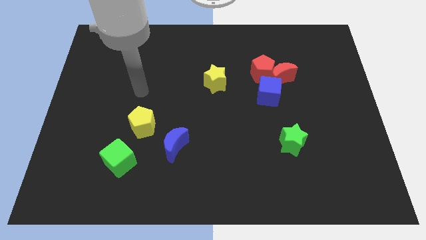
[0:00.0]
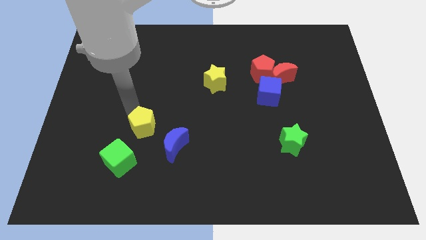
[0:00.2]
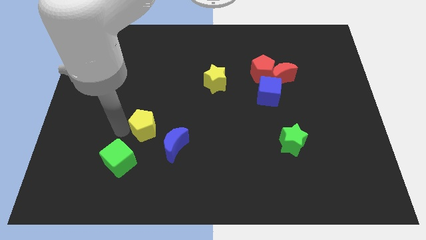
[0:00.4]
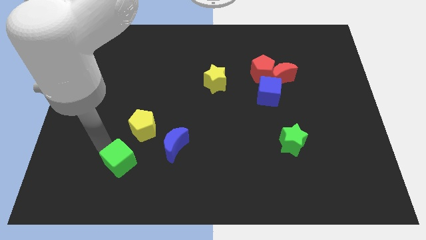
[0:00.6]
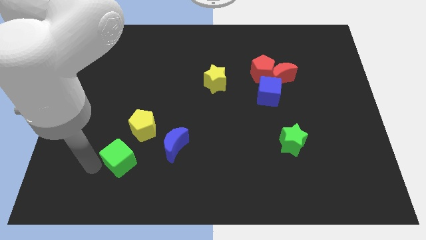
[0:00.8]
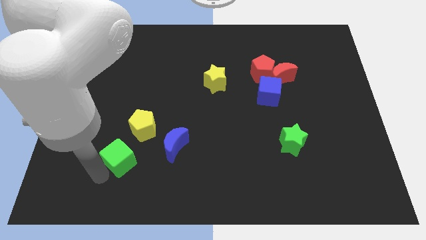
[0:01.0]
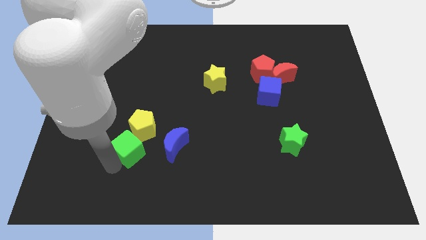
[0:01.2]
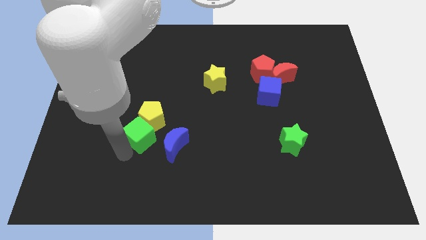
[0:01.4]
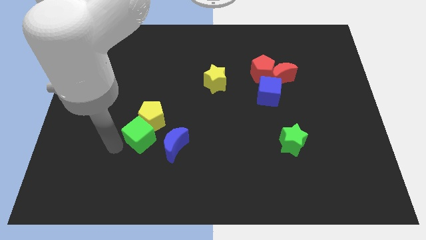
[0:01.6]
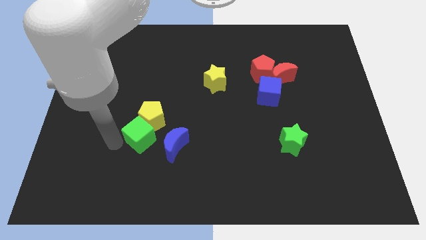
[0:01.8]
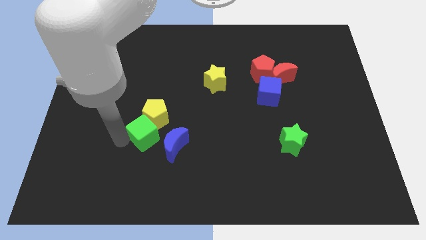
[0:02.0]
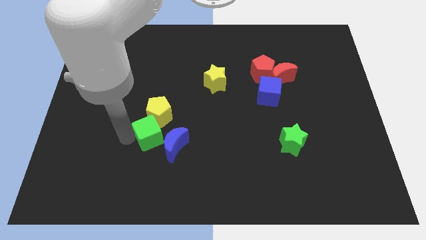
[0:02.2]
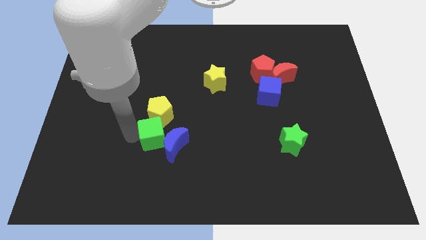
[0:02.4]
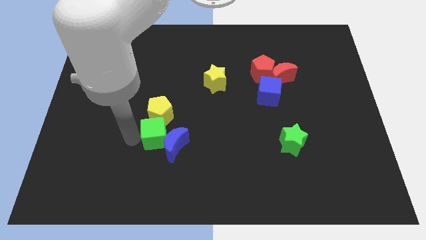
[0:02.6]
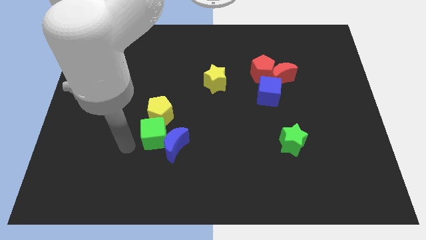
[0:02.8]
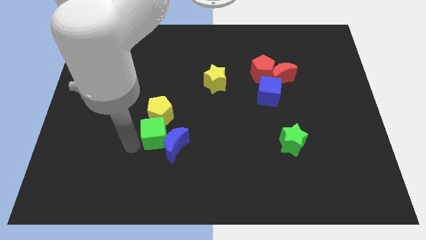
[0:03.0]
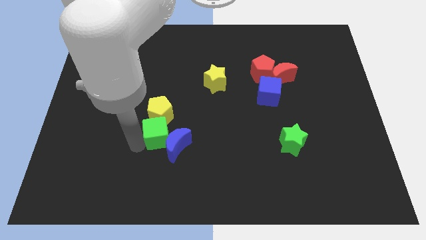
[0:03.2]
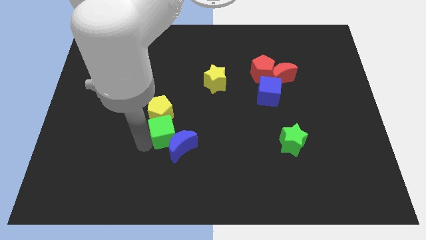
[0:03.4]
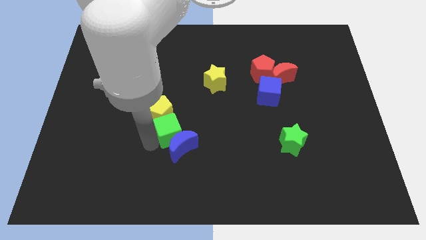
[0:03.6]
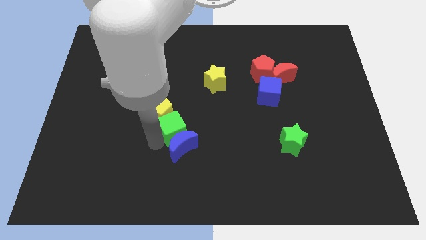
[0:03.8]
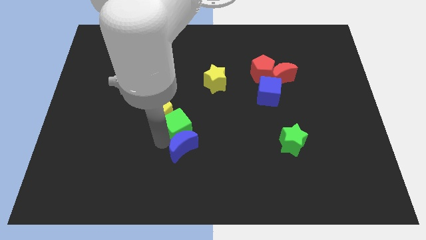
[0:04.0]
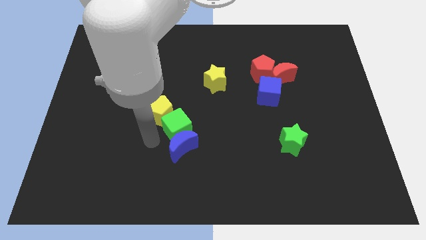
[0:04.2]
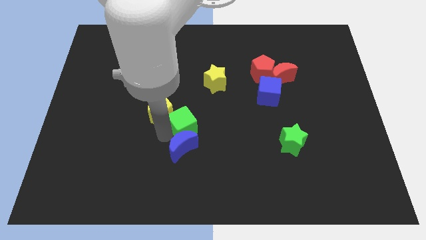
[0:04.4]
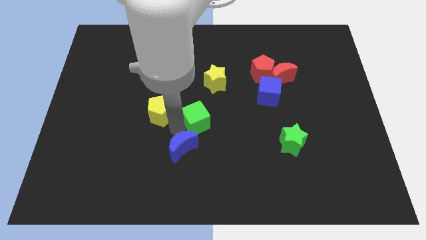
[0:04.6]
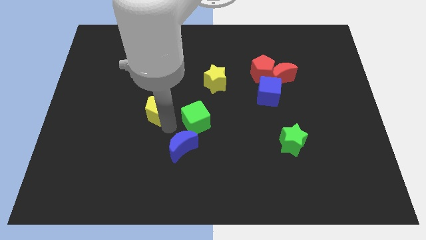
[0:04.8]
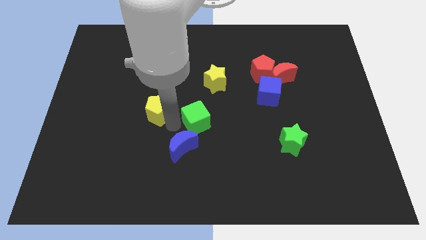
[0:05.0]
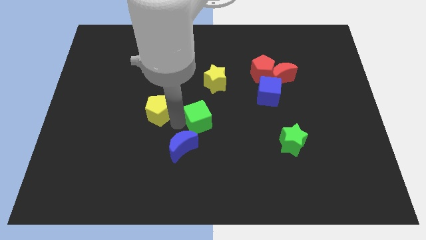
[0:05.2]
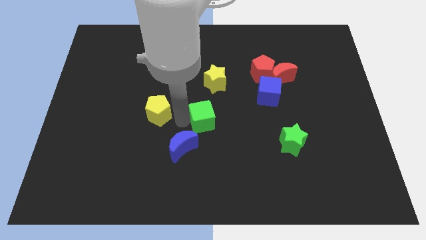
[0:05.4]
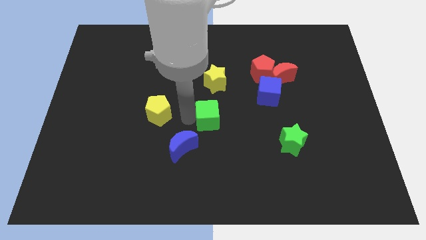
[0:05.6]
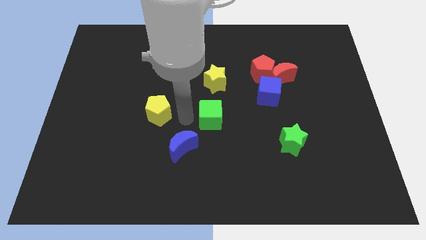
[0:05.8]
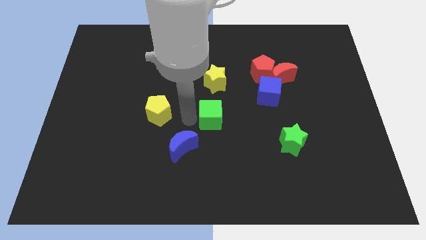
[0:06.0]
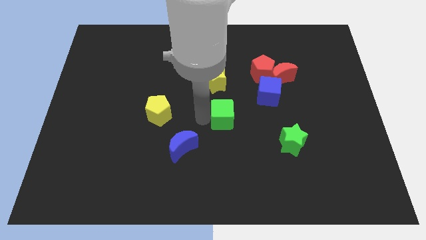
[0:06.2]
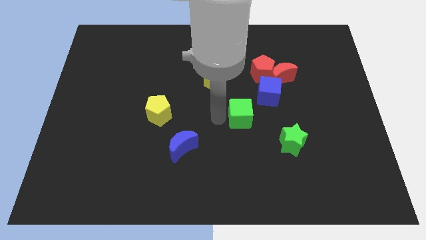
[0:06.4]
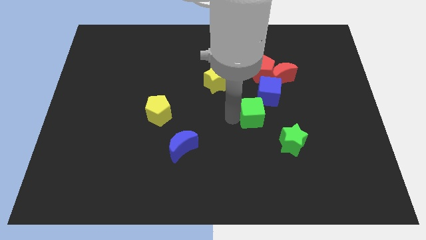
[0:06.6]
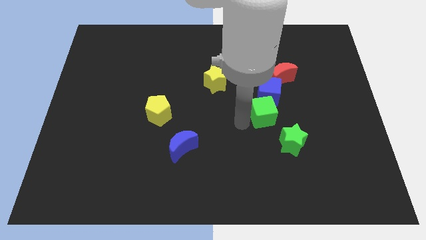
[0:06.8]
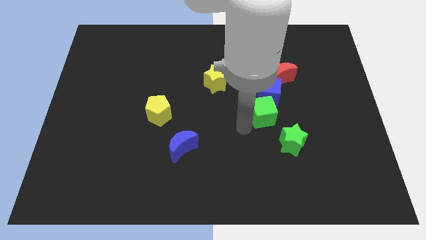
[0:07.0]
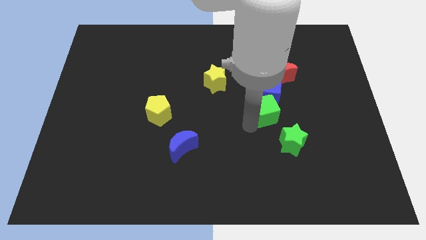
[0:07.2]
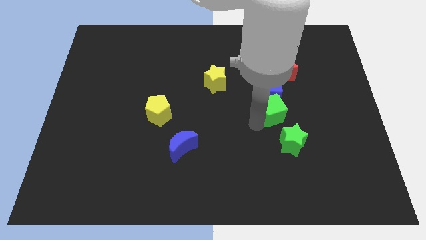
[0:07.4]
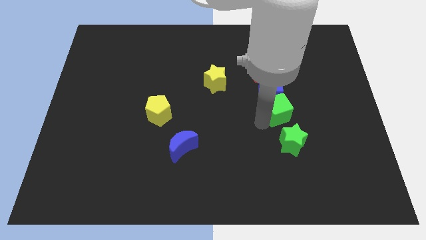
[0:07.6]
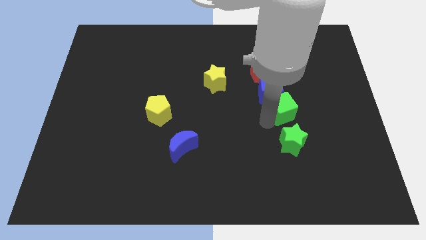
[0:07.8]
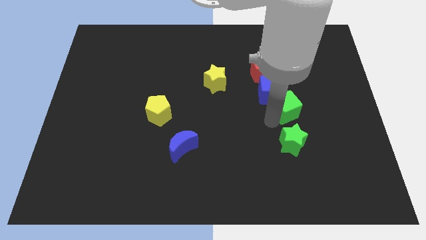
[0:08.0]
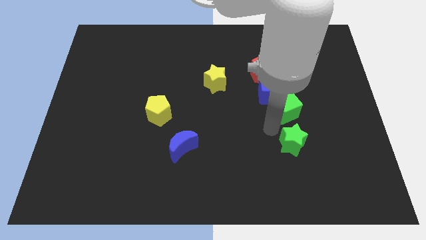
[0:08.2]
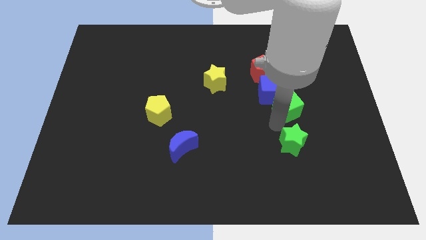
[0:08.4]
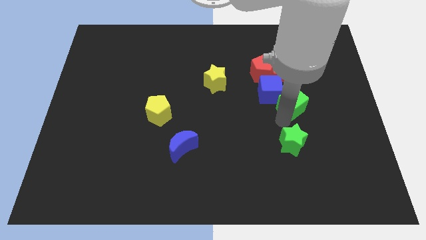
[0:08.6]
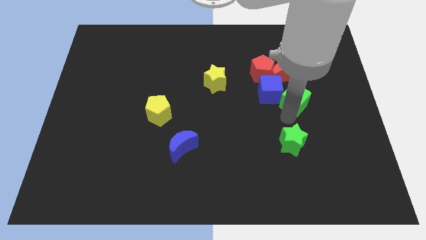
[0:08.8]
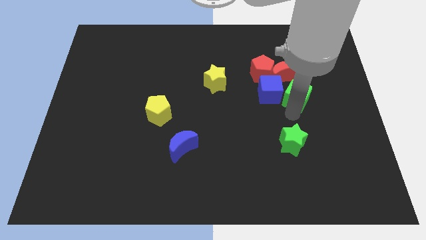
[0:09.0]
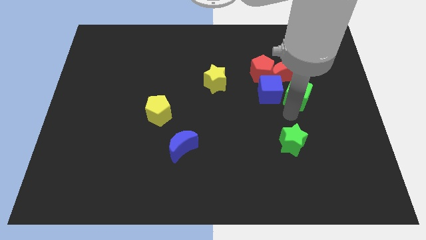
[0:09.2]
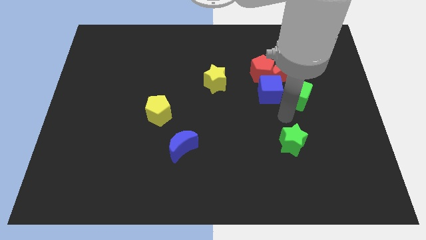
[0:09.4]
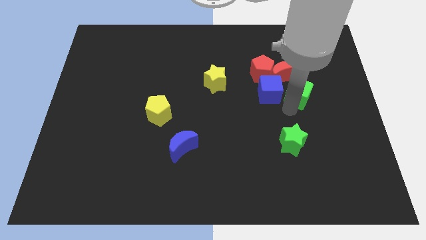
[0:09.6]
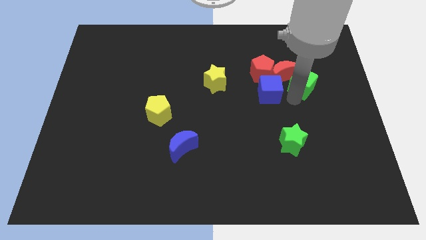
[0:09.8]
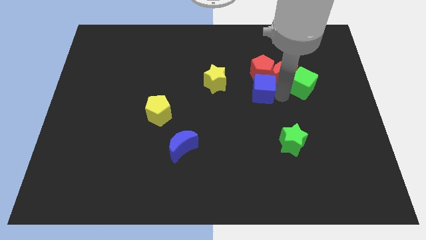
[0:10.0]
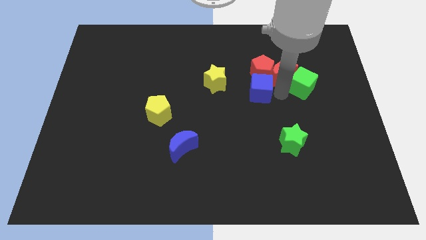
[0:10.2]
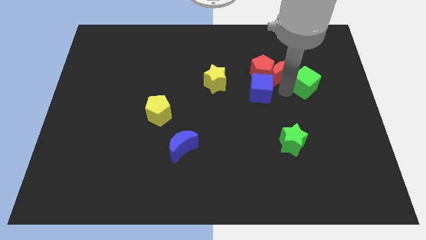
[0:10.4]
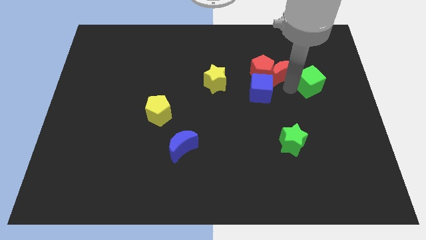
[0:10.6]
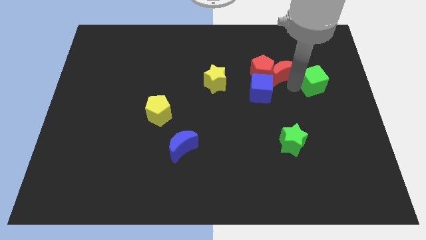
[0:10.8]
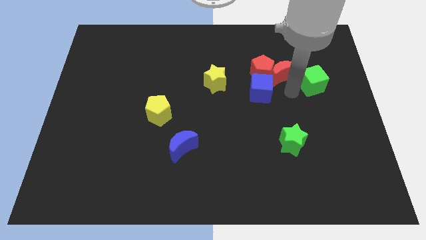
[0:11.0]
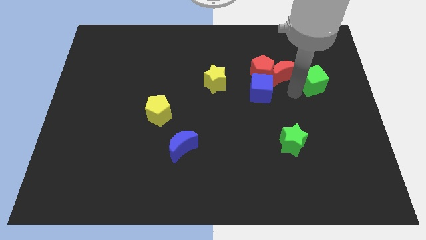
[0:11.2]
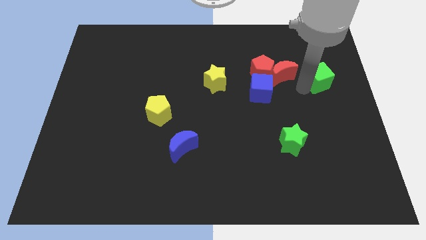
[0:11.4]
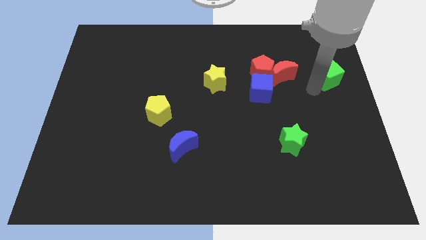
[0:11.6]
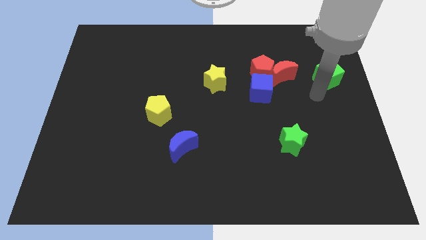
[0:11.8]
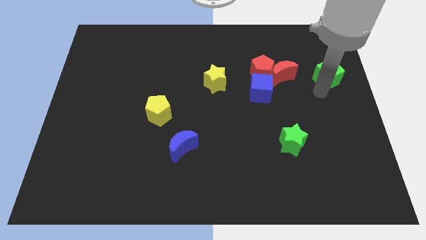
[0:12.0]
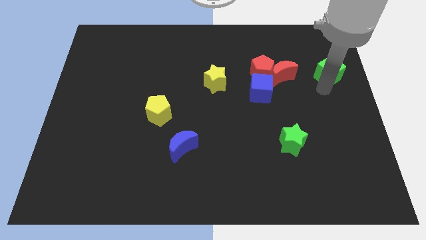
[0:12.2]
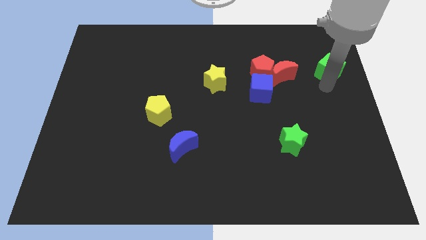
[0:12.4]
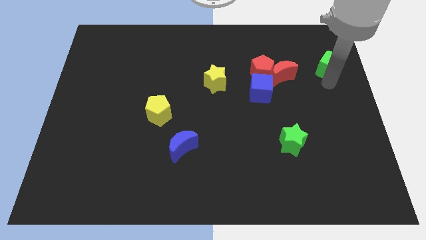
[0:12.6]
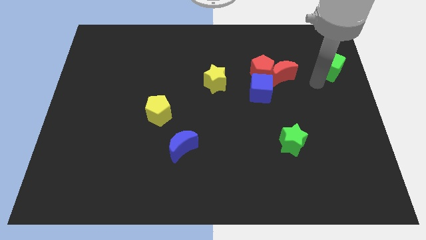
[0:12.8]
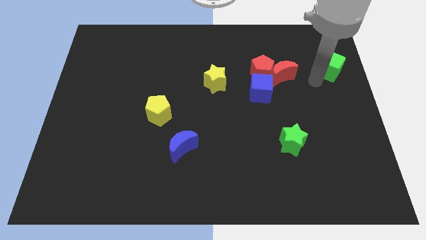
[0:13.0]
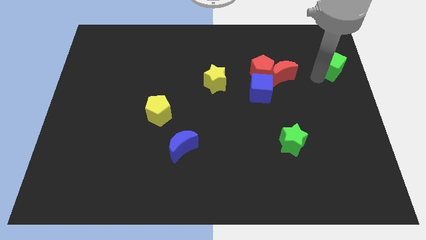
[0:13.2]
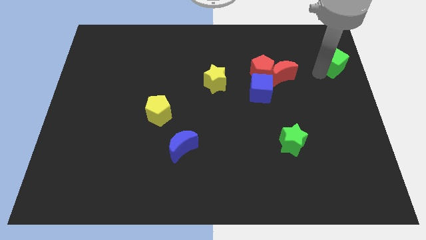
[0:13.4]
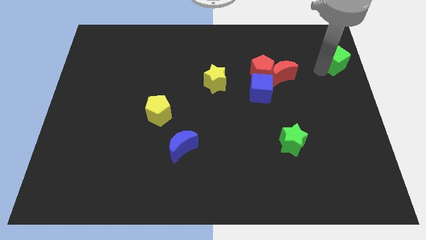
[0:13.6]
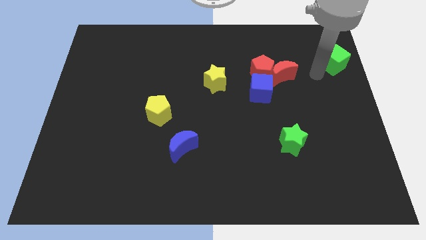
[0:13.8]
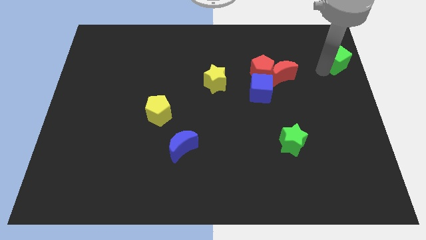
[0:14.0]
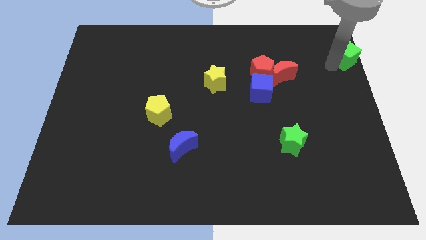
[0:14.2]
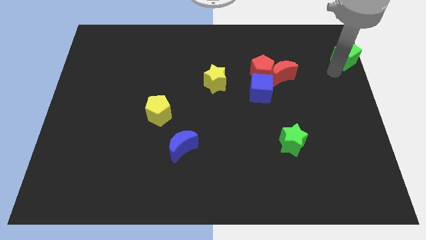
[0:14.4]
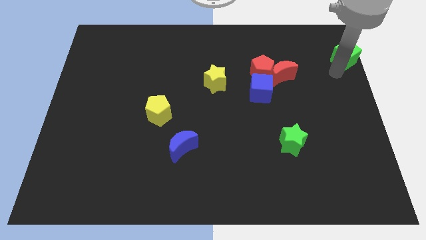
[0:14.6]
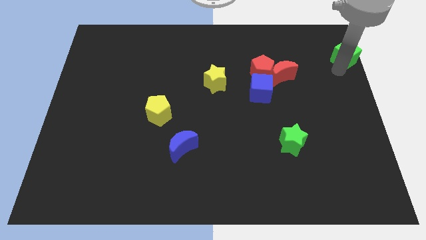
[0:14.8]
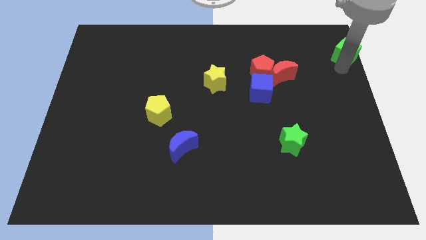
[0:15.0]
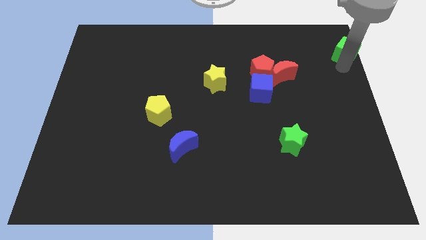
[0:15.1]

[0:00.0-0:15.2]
slide the green cube to the top right
